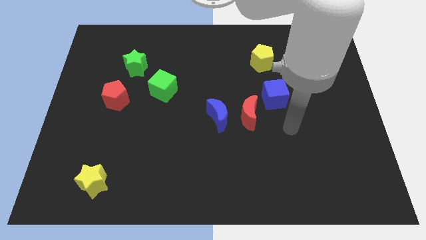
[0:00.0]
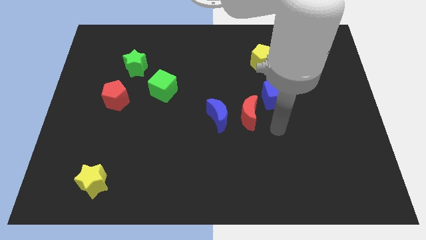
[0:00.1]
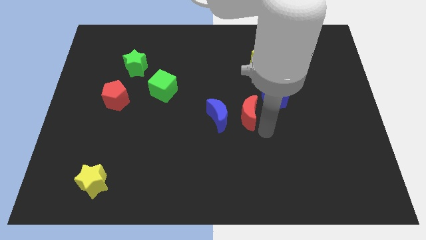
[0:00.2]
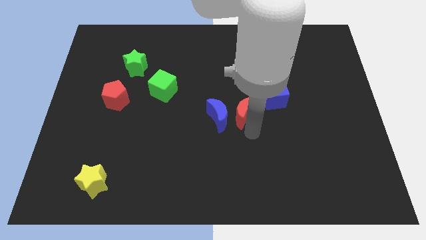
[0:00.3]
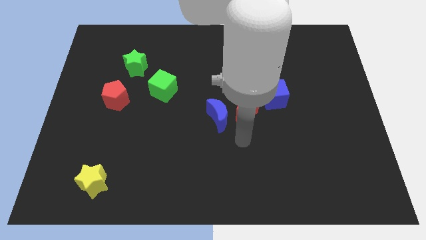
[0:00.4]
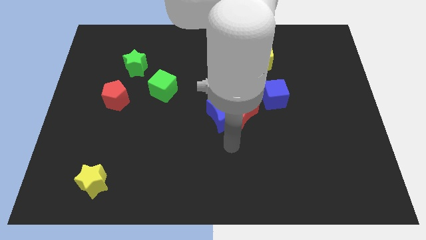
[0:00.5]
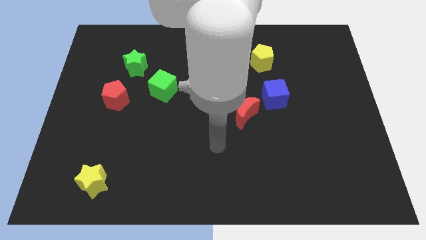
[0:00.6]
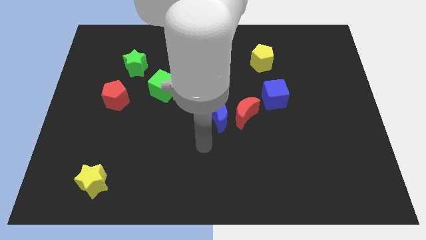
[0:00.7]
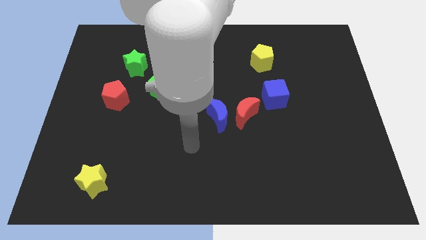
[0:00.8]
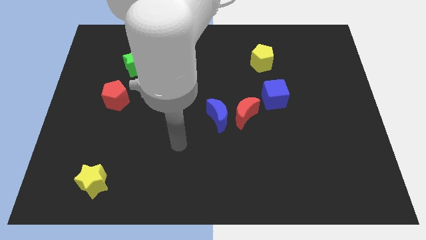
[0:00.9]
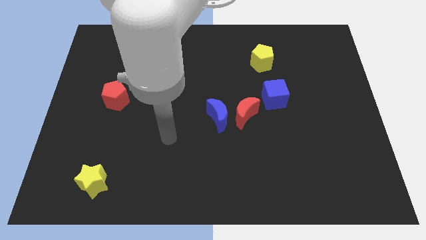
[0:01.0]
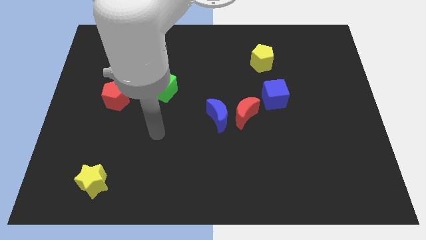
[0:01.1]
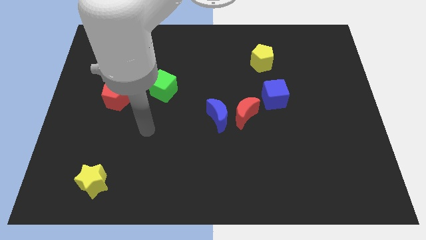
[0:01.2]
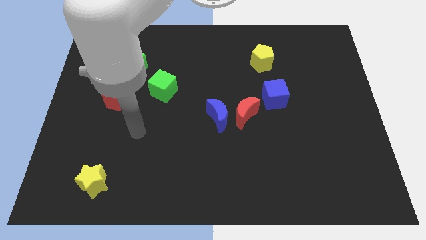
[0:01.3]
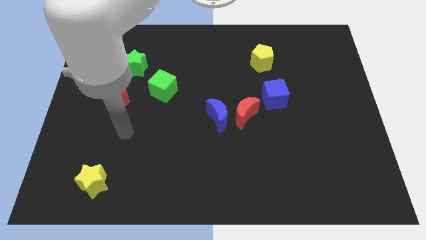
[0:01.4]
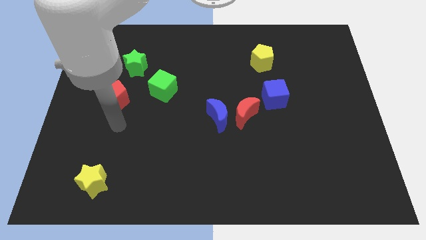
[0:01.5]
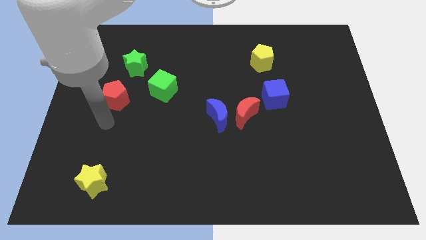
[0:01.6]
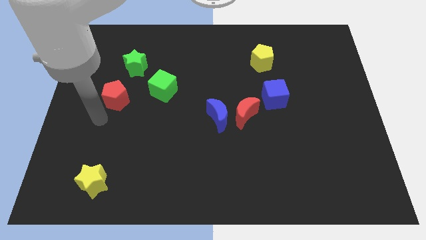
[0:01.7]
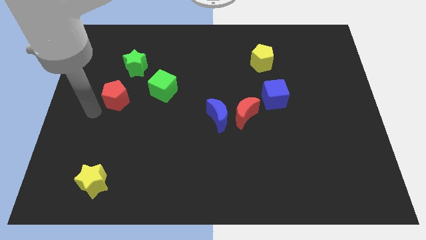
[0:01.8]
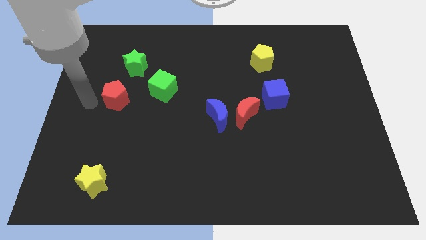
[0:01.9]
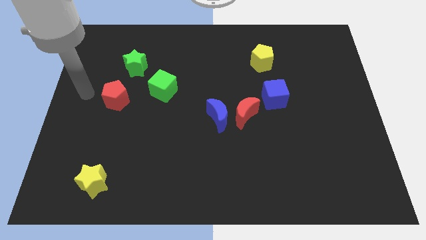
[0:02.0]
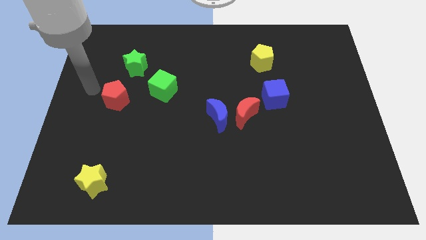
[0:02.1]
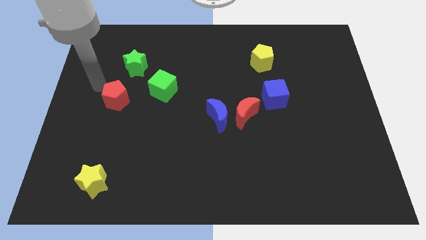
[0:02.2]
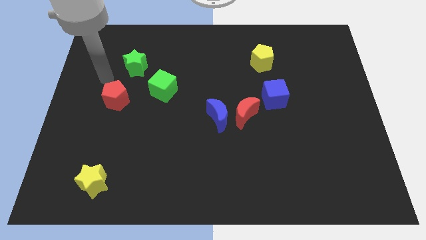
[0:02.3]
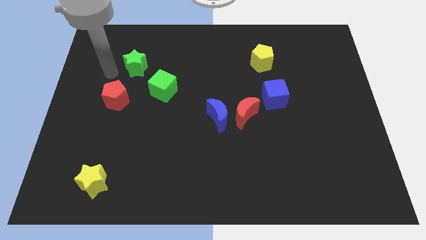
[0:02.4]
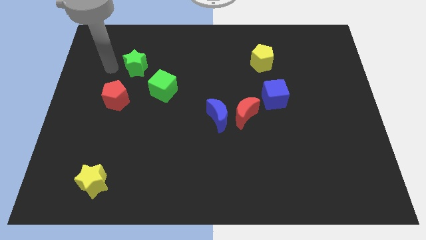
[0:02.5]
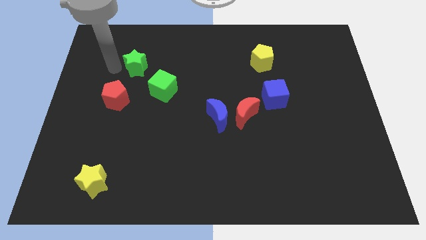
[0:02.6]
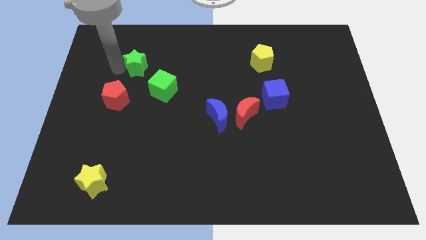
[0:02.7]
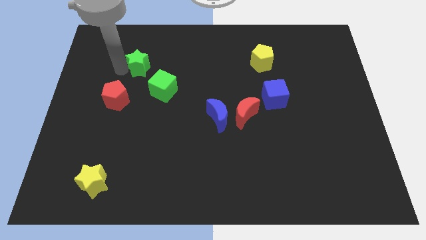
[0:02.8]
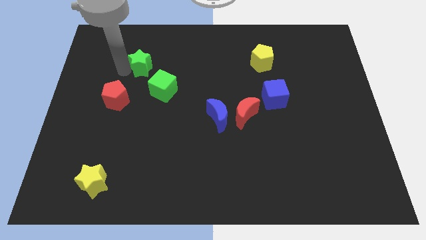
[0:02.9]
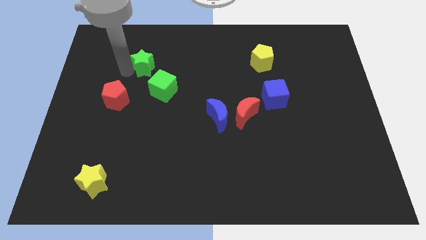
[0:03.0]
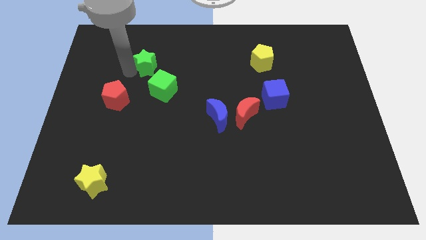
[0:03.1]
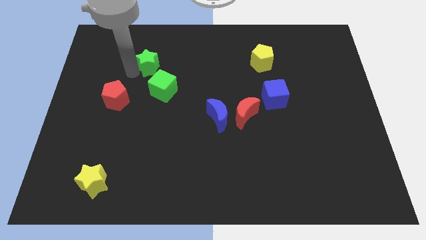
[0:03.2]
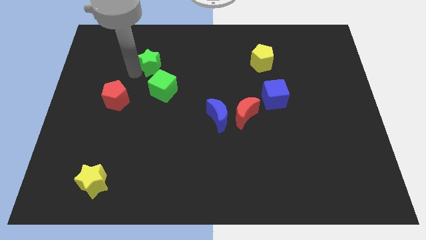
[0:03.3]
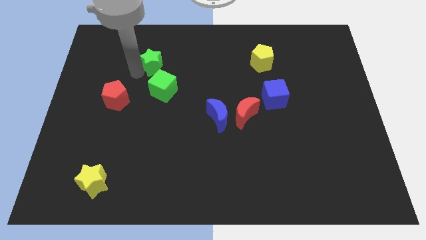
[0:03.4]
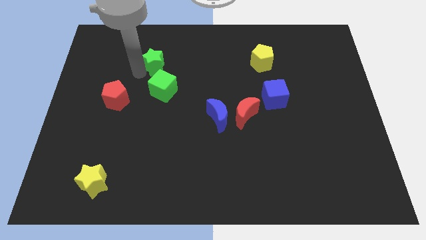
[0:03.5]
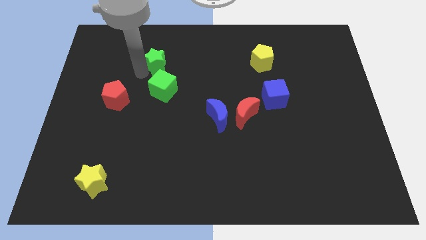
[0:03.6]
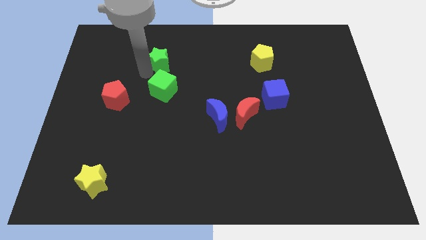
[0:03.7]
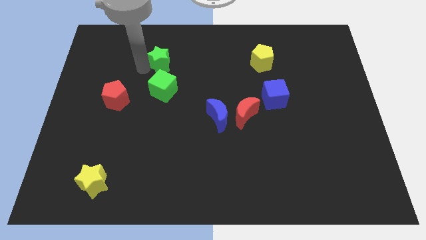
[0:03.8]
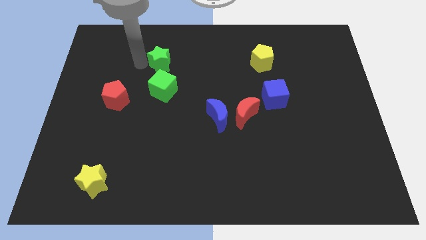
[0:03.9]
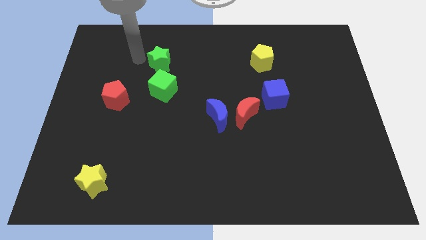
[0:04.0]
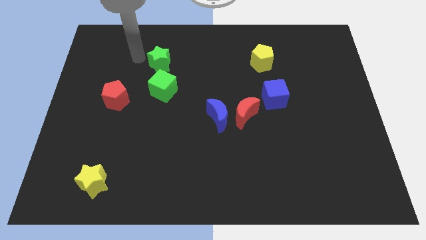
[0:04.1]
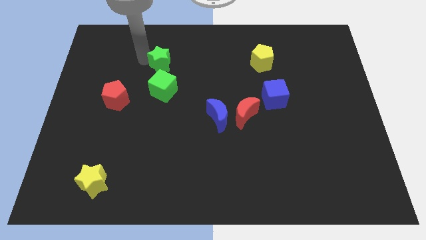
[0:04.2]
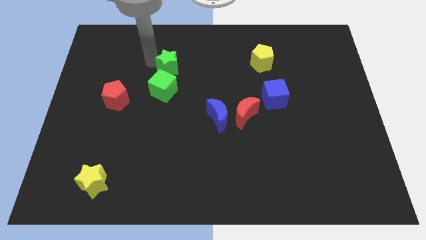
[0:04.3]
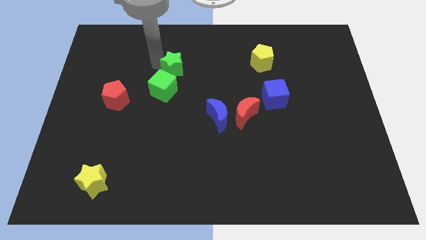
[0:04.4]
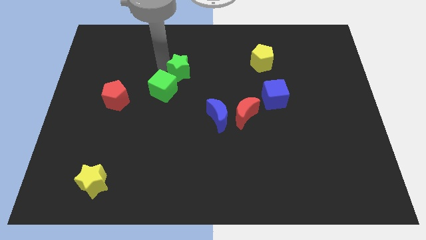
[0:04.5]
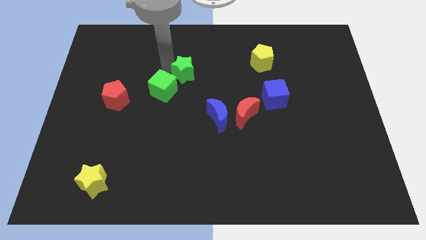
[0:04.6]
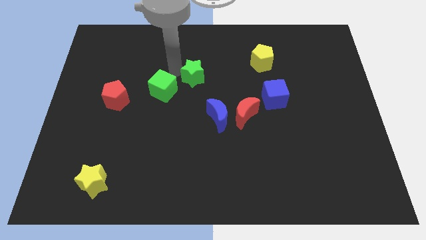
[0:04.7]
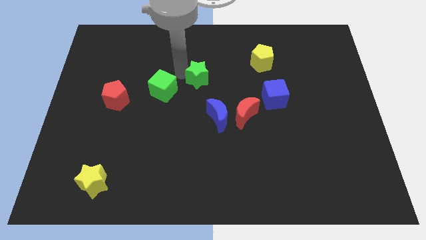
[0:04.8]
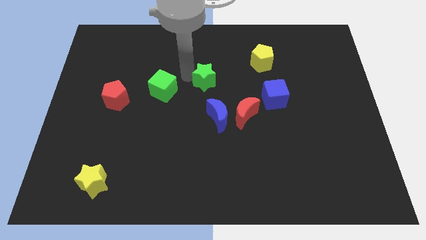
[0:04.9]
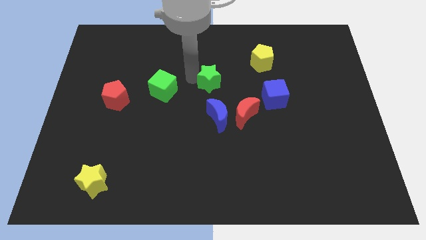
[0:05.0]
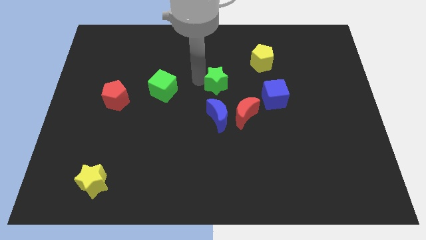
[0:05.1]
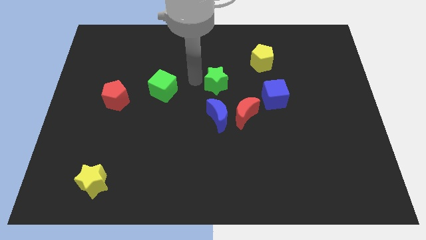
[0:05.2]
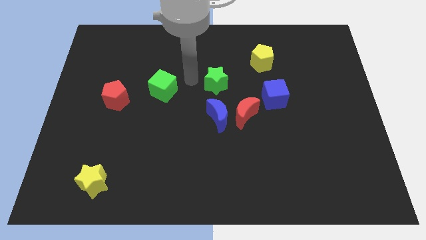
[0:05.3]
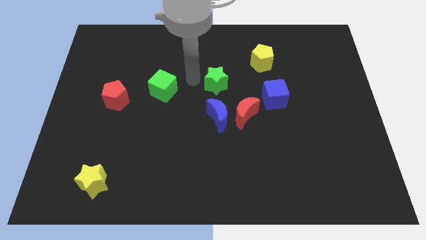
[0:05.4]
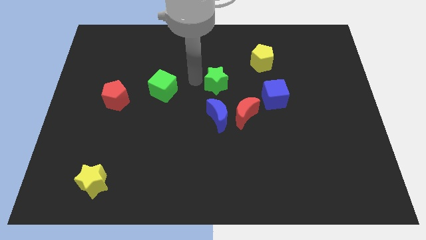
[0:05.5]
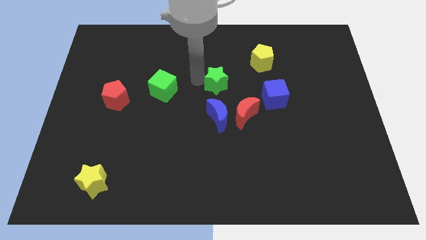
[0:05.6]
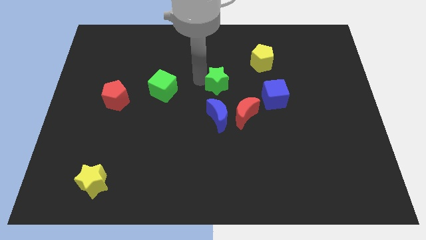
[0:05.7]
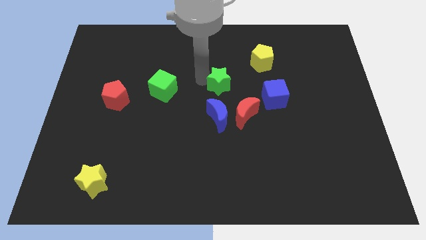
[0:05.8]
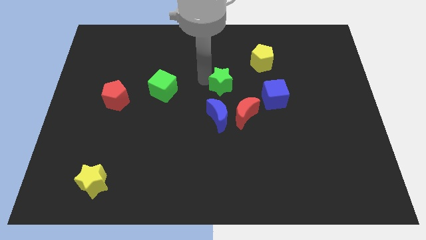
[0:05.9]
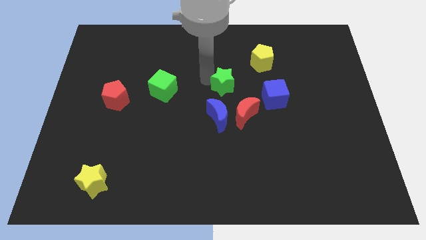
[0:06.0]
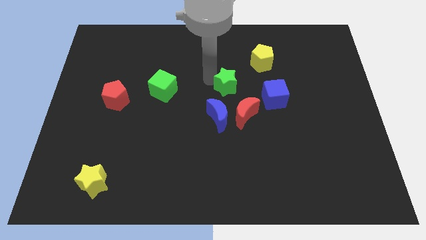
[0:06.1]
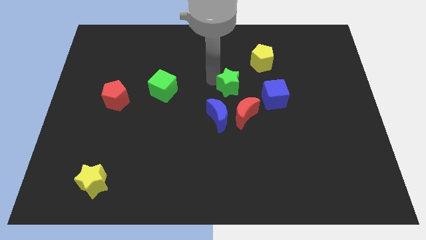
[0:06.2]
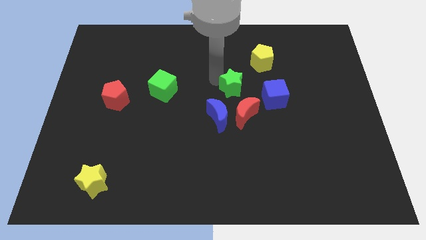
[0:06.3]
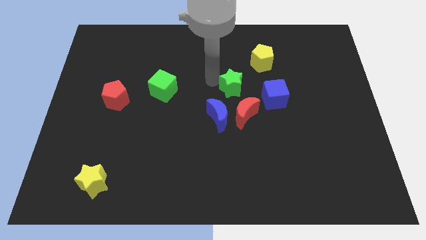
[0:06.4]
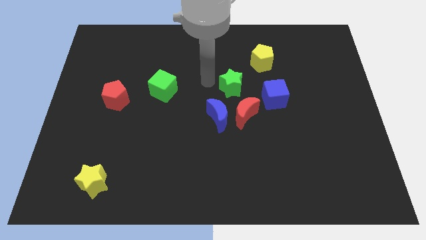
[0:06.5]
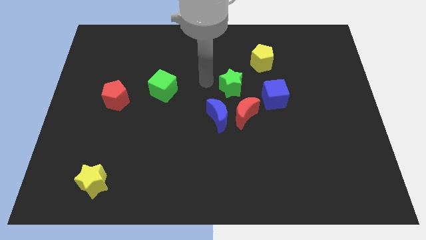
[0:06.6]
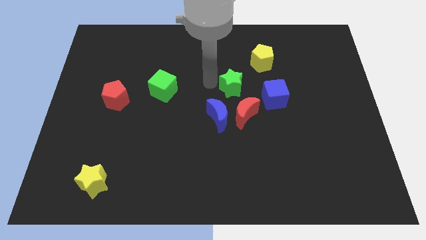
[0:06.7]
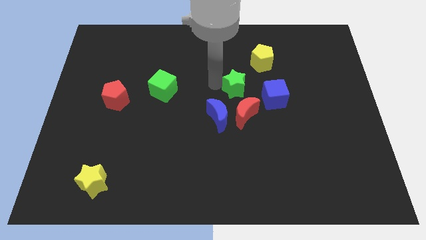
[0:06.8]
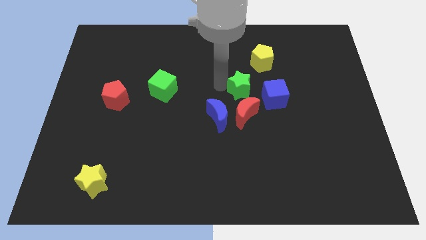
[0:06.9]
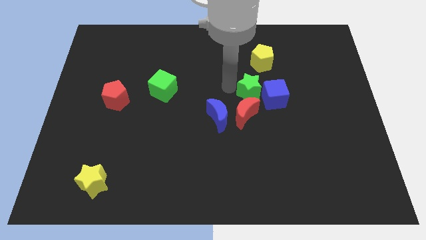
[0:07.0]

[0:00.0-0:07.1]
put the green star next to the blue cube
